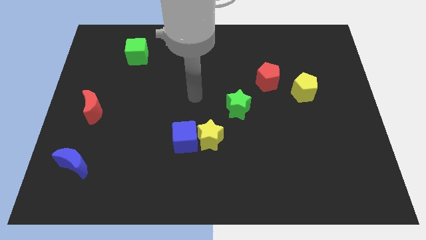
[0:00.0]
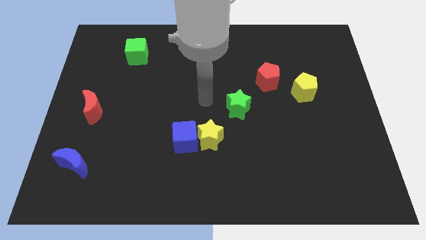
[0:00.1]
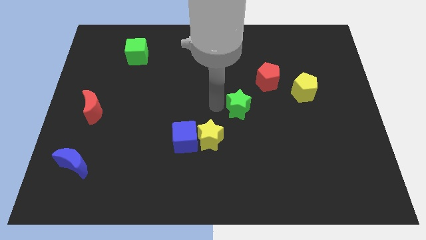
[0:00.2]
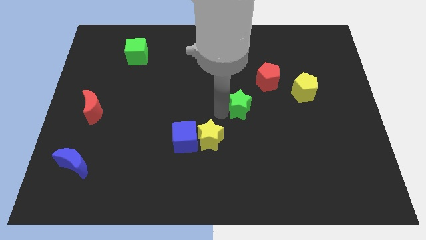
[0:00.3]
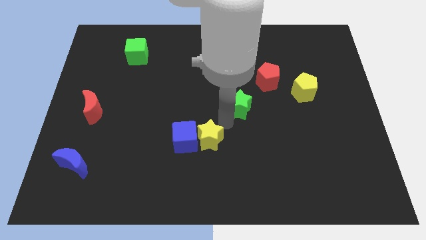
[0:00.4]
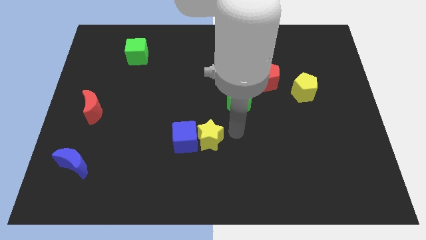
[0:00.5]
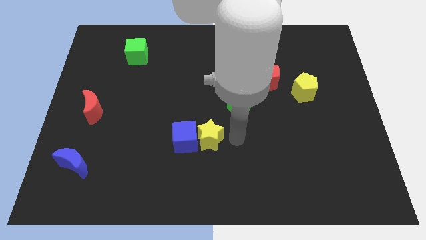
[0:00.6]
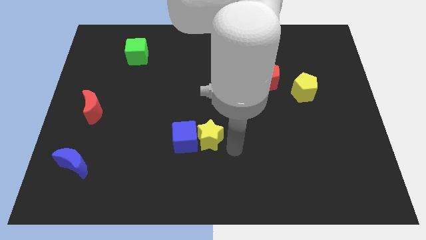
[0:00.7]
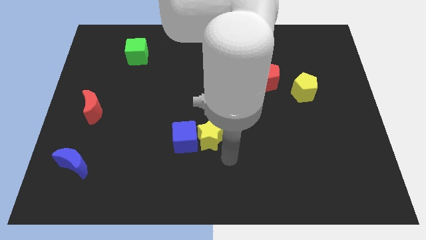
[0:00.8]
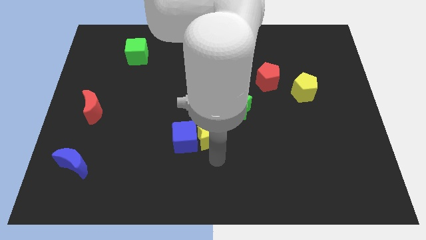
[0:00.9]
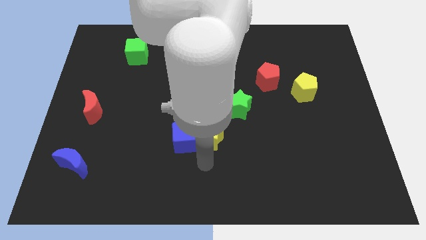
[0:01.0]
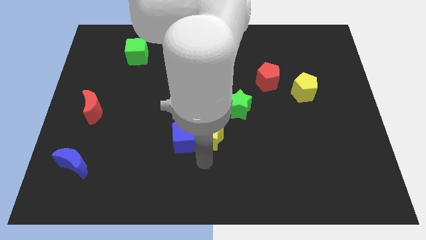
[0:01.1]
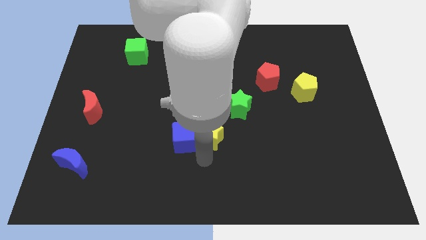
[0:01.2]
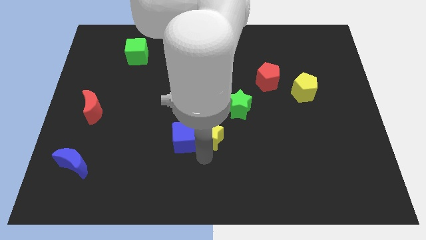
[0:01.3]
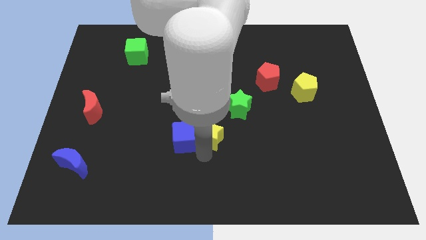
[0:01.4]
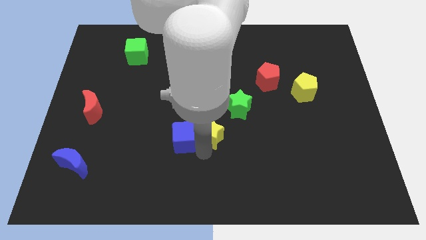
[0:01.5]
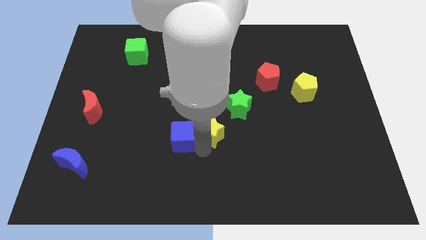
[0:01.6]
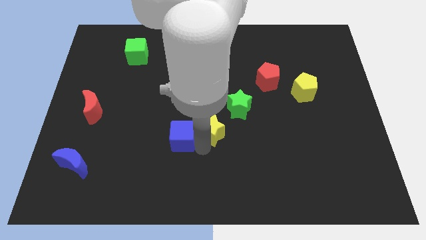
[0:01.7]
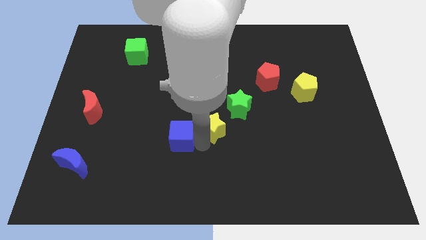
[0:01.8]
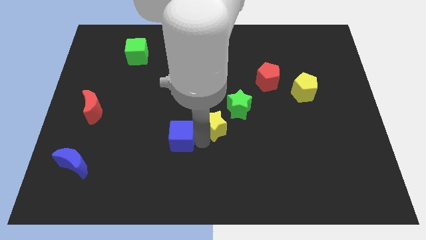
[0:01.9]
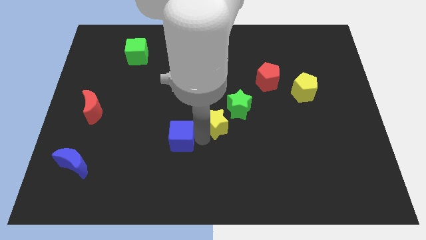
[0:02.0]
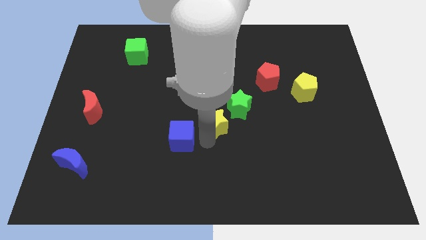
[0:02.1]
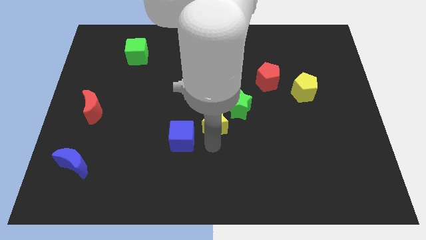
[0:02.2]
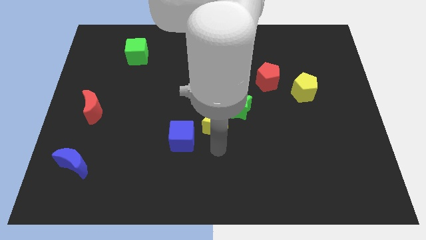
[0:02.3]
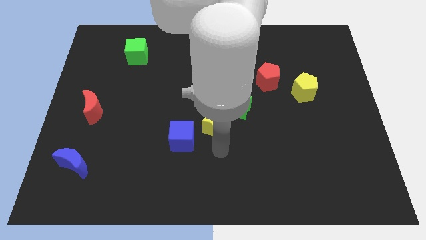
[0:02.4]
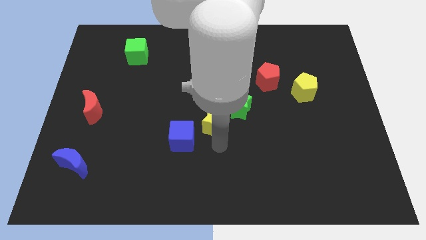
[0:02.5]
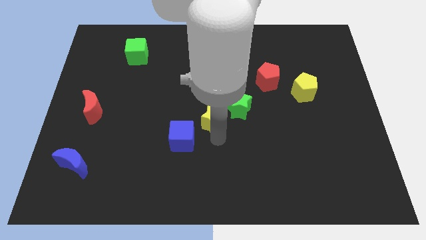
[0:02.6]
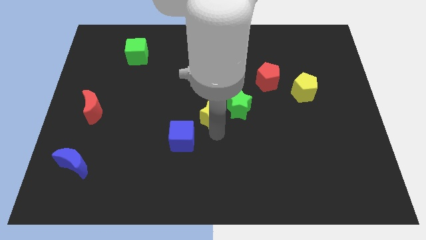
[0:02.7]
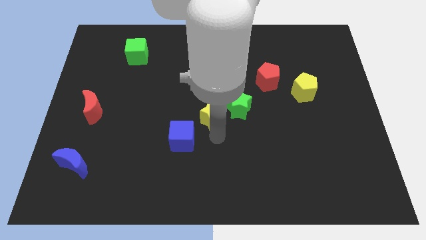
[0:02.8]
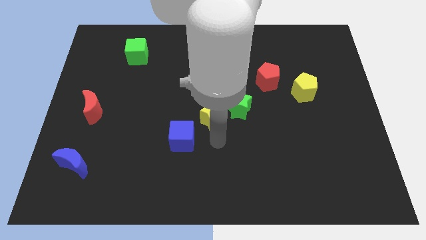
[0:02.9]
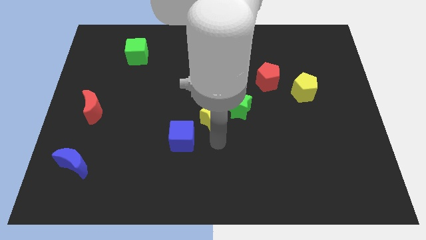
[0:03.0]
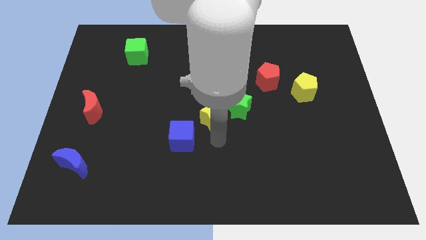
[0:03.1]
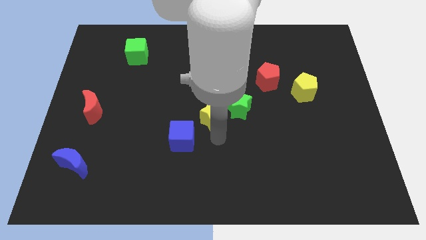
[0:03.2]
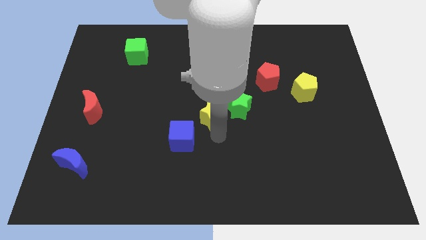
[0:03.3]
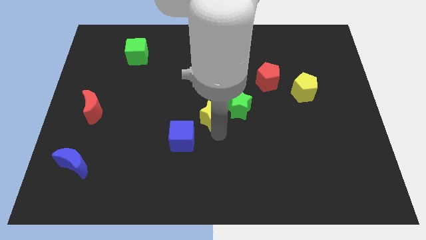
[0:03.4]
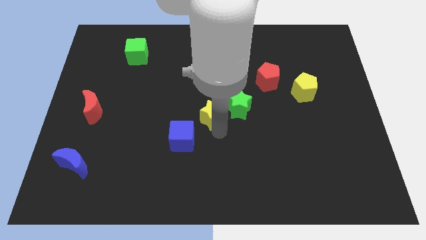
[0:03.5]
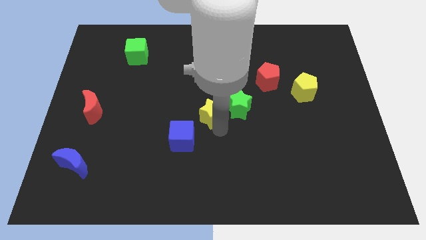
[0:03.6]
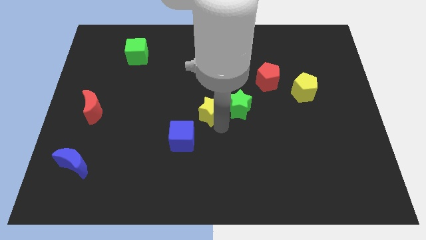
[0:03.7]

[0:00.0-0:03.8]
slightly push the yellow star up

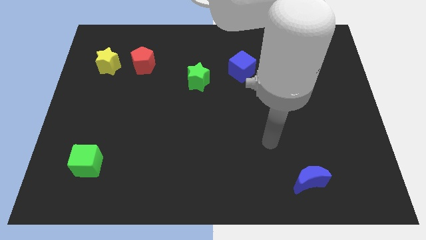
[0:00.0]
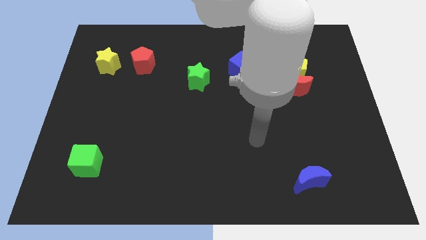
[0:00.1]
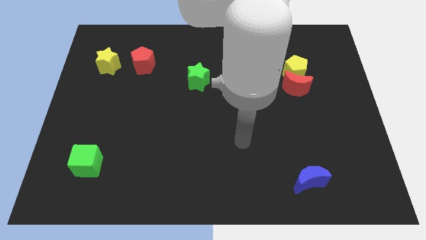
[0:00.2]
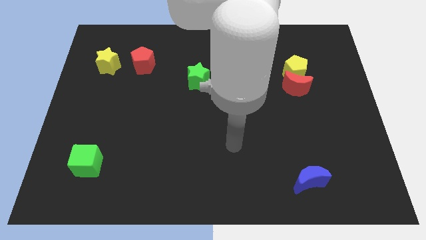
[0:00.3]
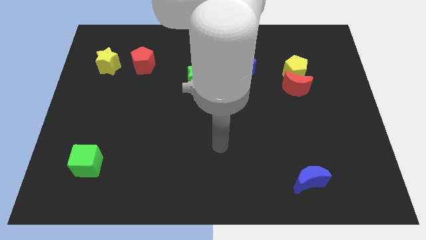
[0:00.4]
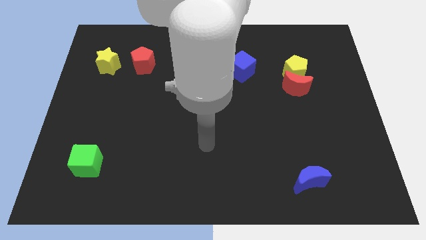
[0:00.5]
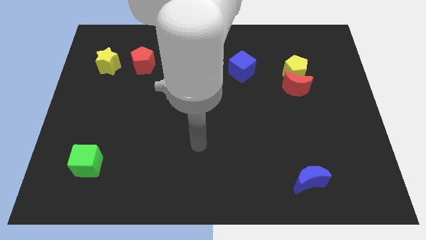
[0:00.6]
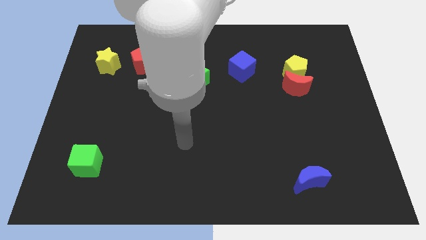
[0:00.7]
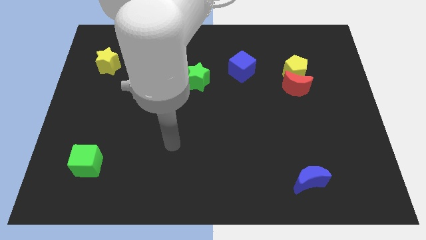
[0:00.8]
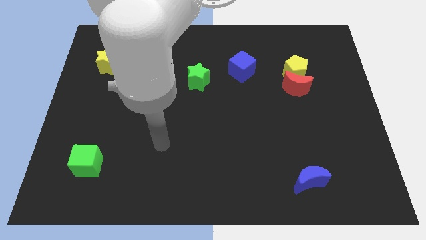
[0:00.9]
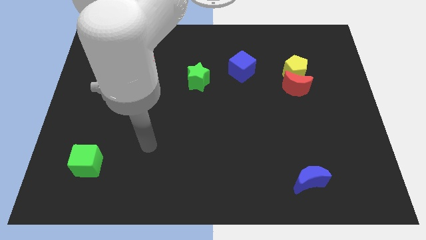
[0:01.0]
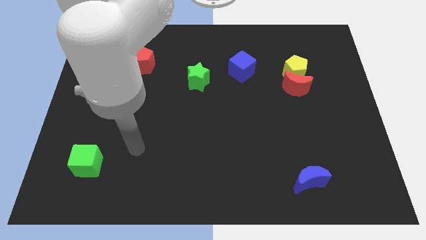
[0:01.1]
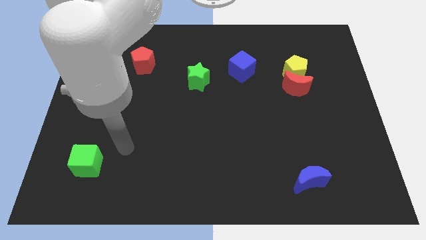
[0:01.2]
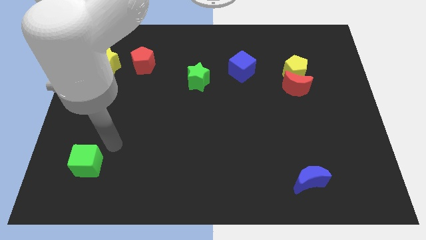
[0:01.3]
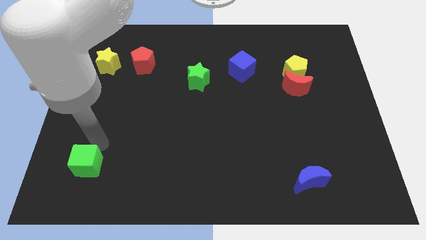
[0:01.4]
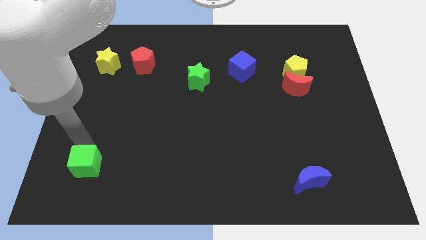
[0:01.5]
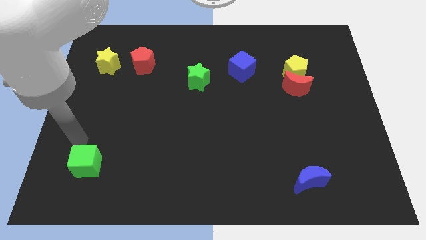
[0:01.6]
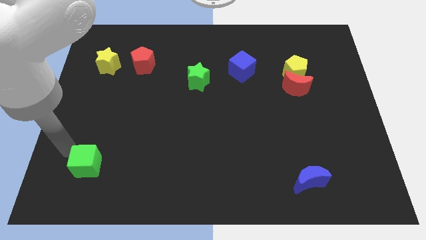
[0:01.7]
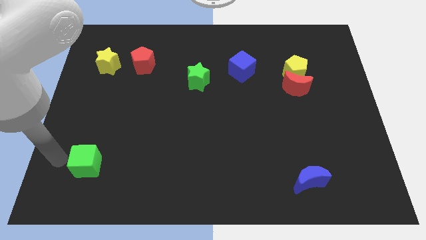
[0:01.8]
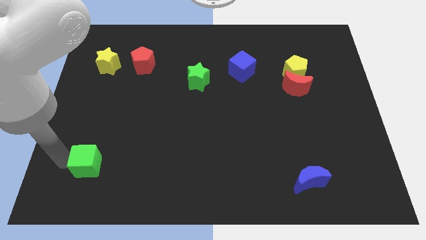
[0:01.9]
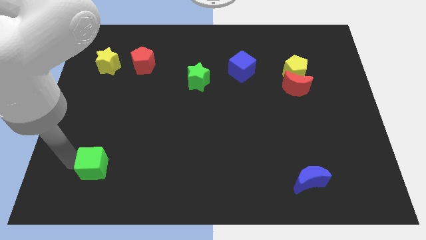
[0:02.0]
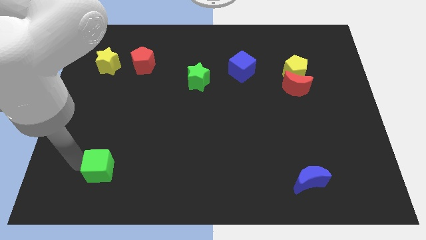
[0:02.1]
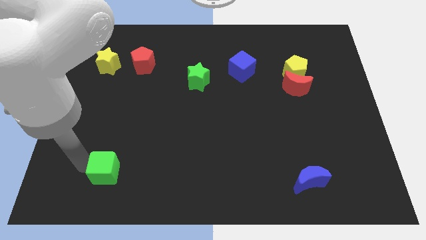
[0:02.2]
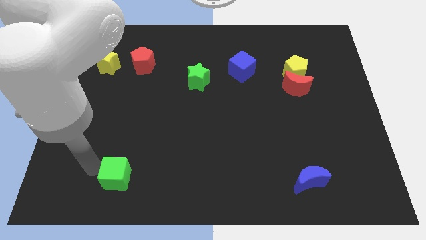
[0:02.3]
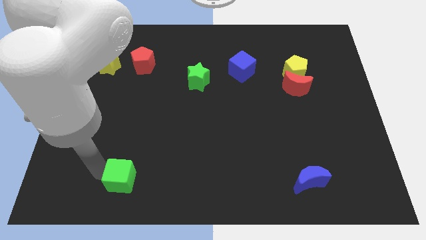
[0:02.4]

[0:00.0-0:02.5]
push the green cube somewhat to the right

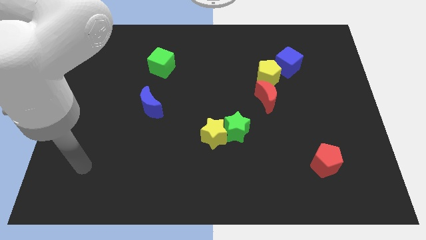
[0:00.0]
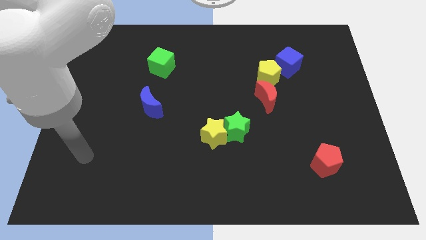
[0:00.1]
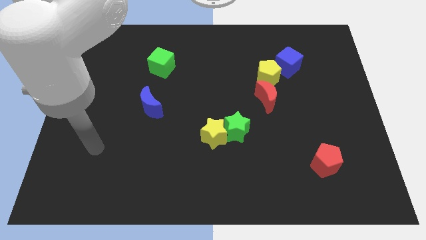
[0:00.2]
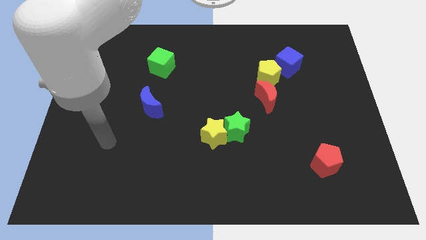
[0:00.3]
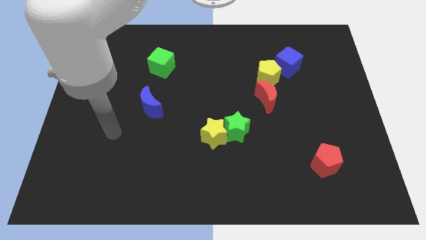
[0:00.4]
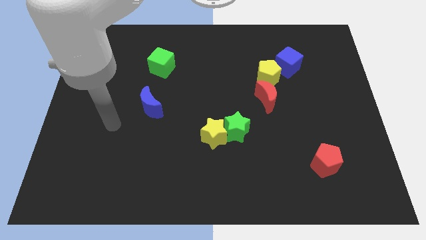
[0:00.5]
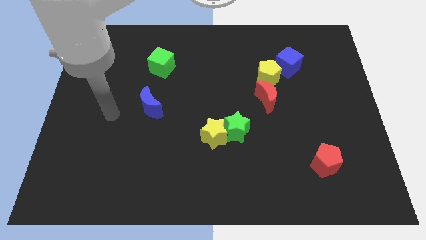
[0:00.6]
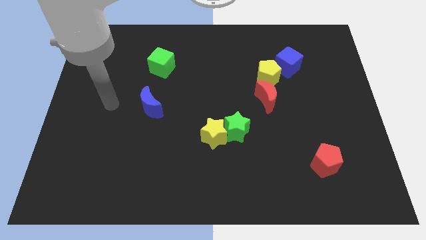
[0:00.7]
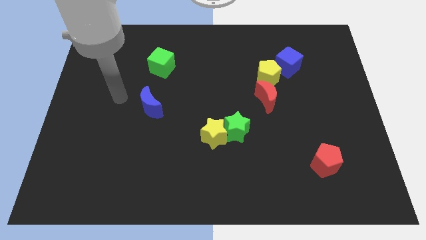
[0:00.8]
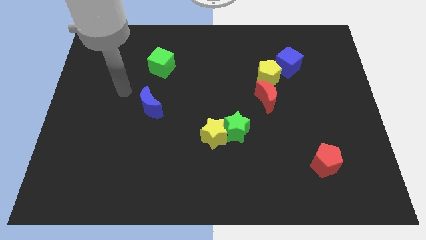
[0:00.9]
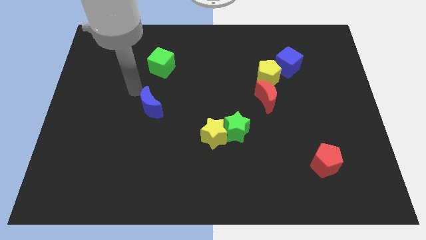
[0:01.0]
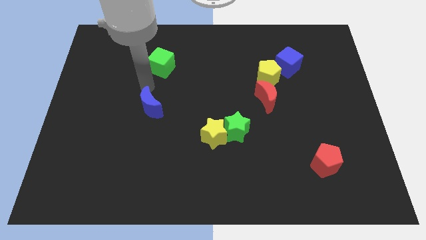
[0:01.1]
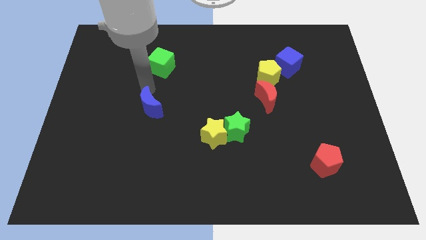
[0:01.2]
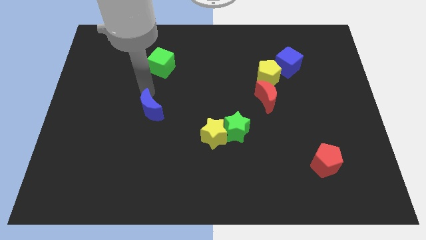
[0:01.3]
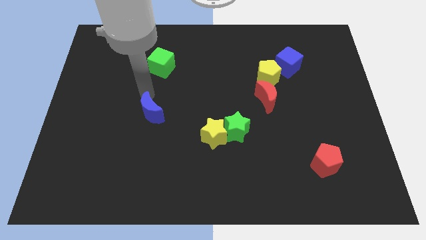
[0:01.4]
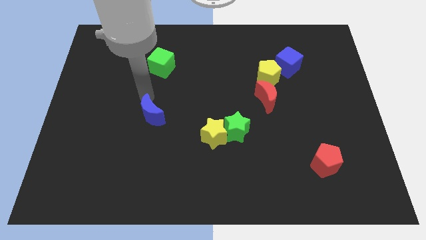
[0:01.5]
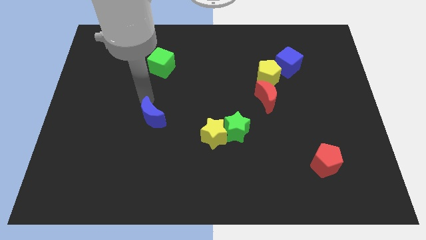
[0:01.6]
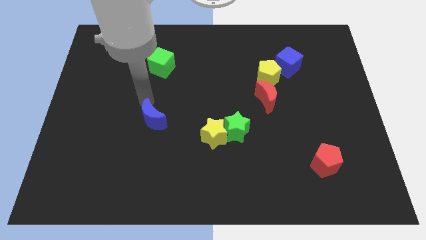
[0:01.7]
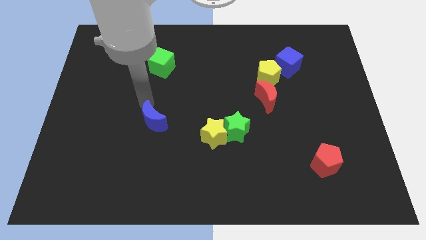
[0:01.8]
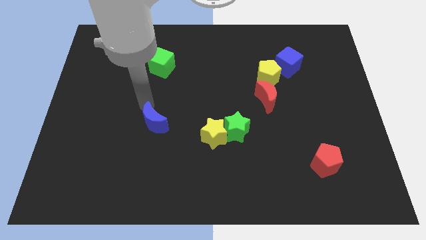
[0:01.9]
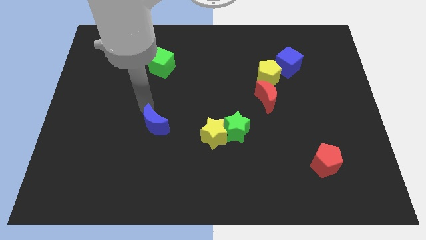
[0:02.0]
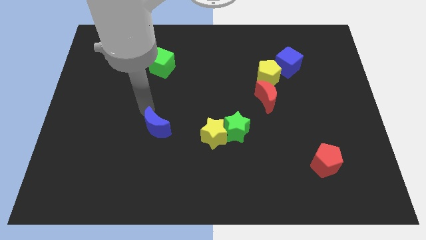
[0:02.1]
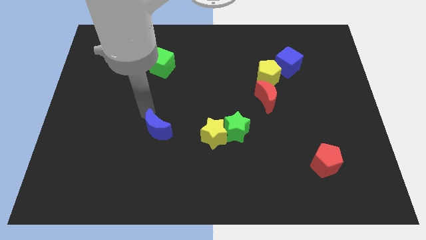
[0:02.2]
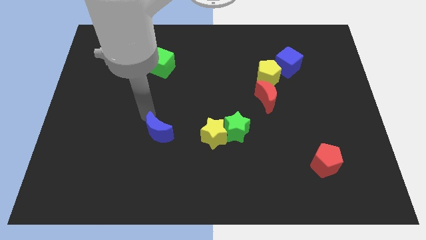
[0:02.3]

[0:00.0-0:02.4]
move the blue moon down a little
